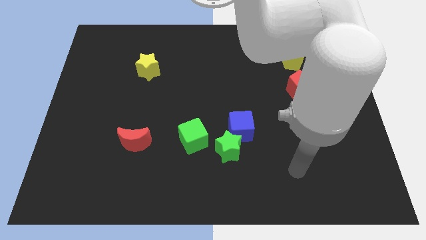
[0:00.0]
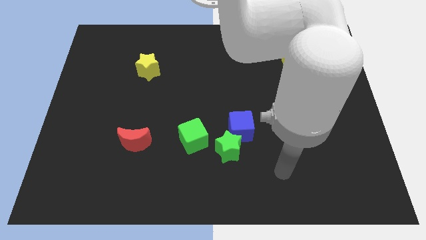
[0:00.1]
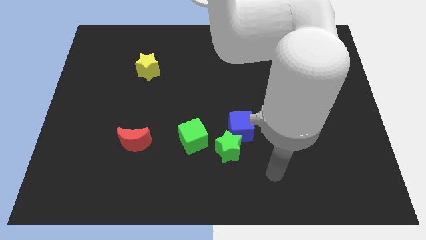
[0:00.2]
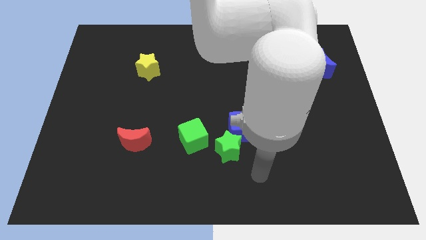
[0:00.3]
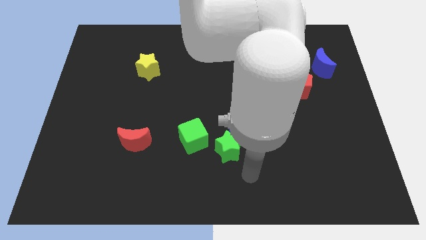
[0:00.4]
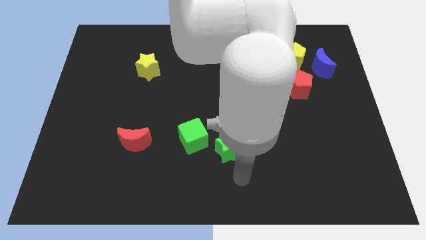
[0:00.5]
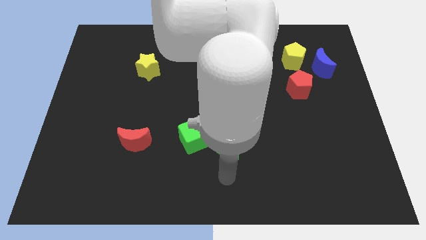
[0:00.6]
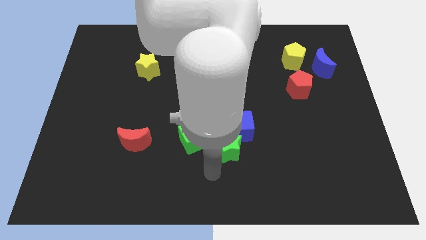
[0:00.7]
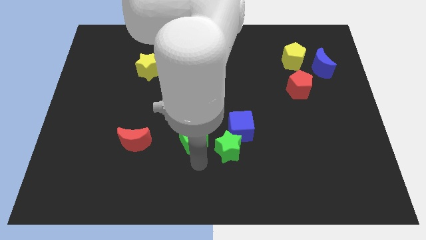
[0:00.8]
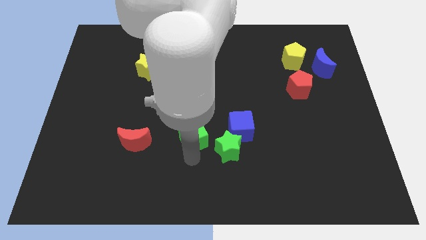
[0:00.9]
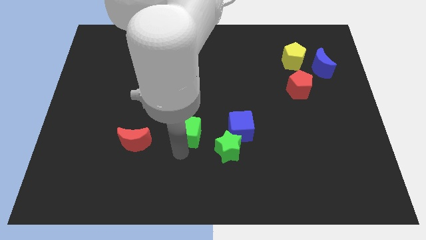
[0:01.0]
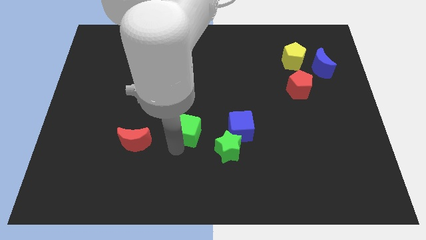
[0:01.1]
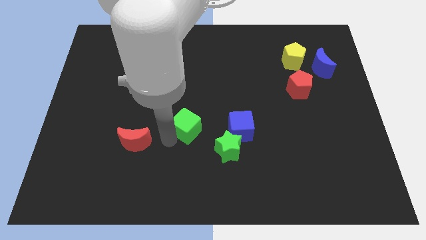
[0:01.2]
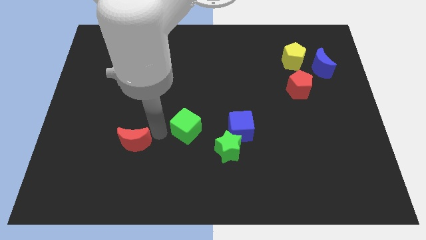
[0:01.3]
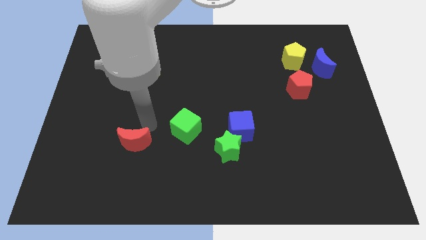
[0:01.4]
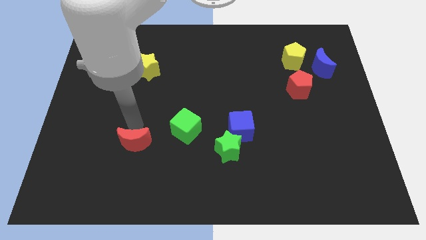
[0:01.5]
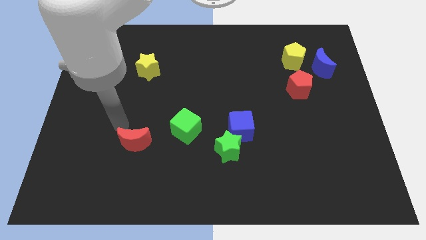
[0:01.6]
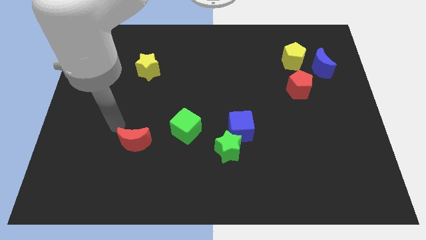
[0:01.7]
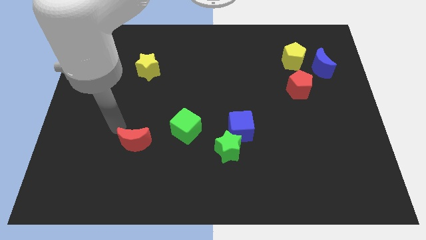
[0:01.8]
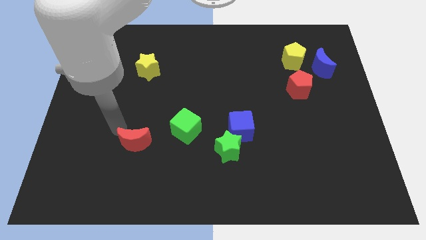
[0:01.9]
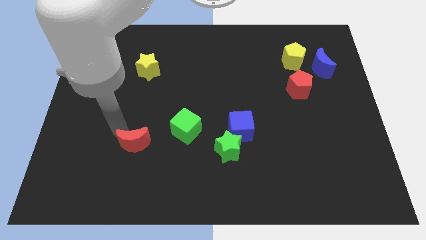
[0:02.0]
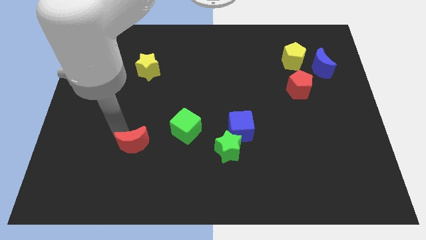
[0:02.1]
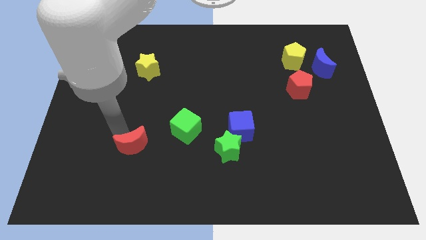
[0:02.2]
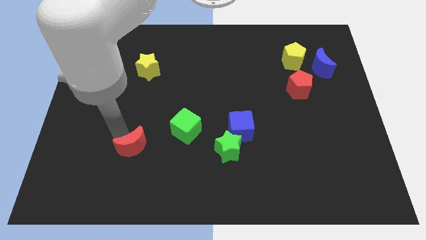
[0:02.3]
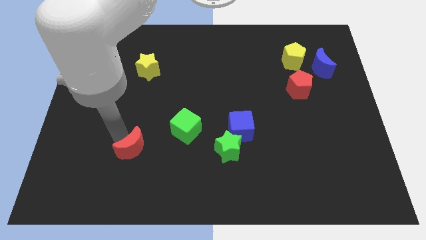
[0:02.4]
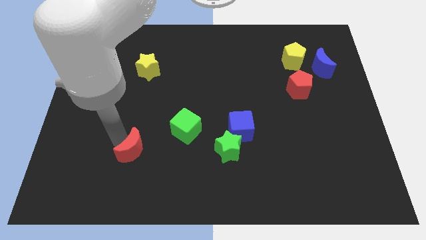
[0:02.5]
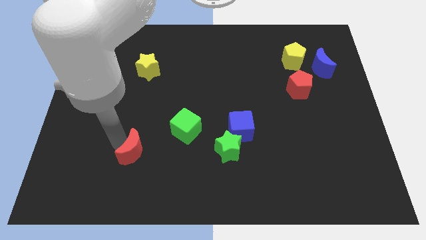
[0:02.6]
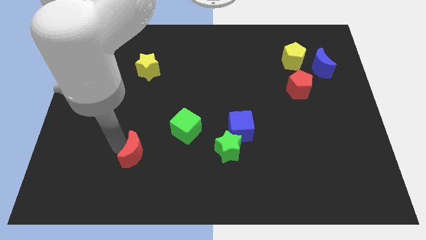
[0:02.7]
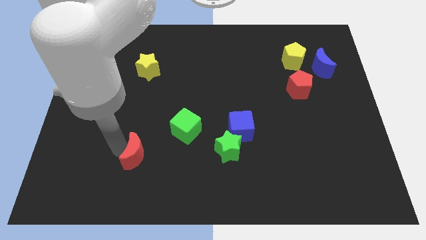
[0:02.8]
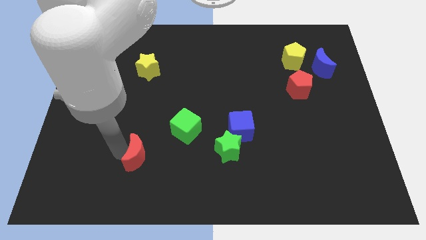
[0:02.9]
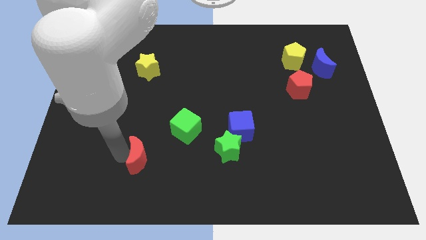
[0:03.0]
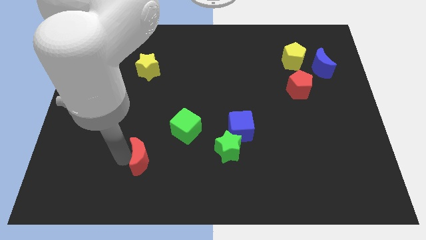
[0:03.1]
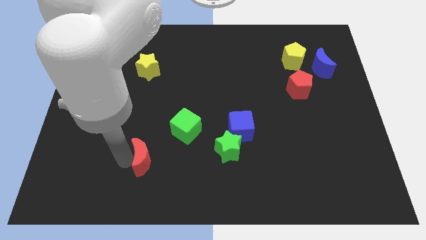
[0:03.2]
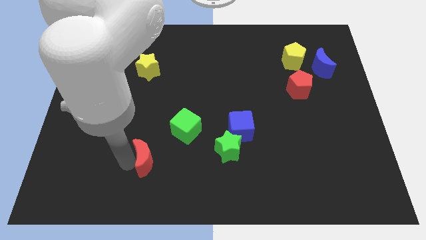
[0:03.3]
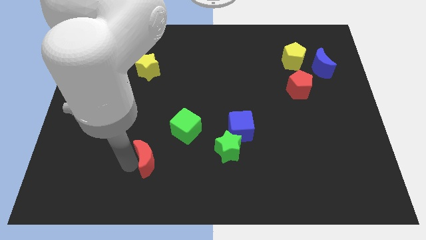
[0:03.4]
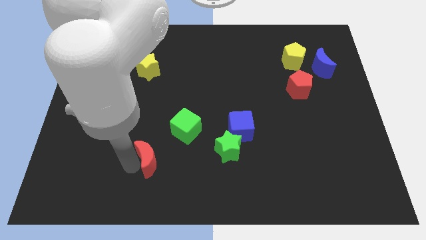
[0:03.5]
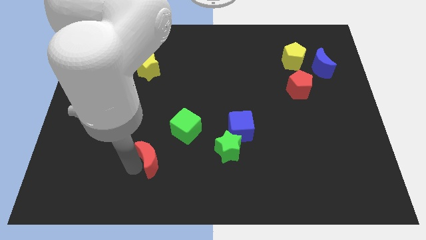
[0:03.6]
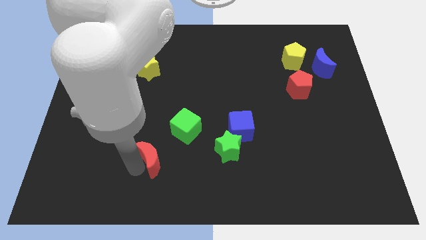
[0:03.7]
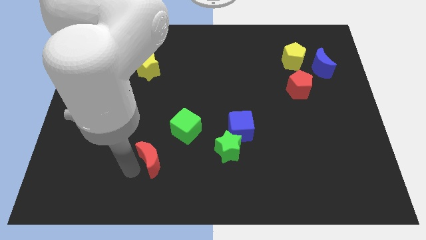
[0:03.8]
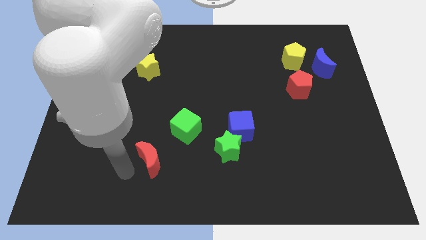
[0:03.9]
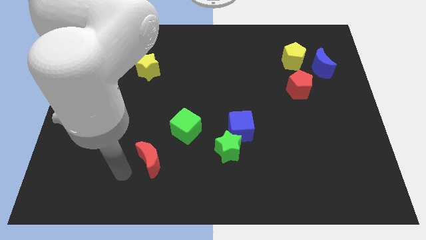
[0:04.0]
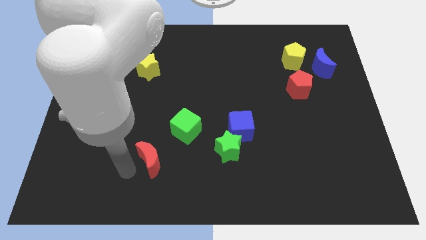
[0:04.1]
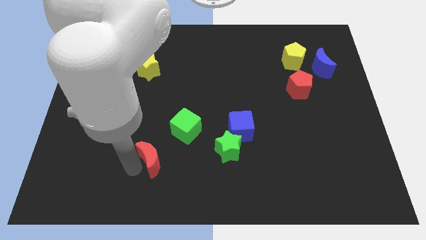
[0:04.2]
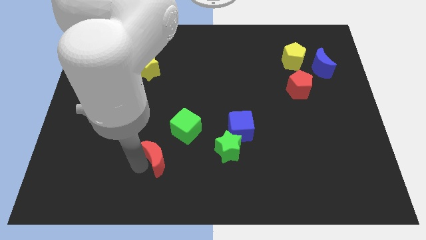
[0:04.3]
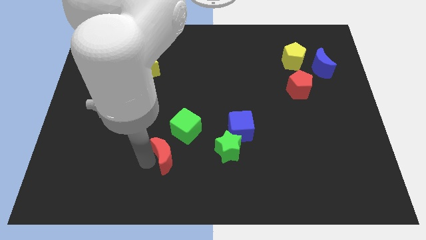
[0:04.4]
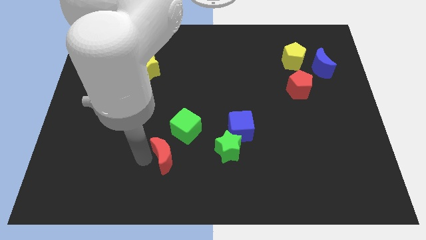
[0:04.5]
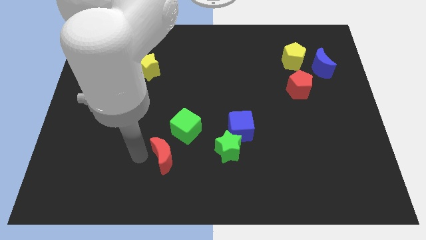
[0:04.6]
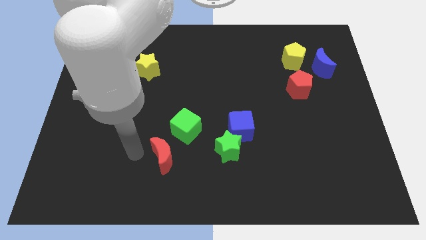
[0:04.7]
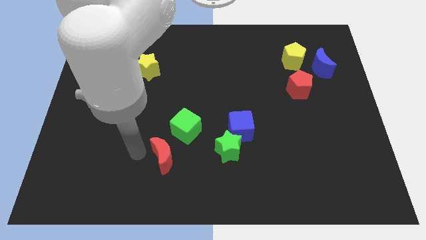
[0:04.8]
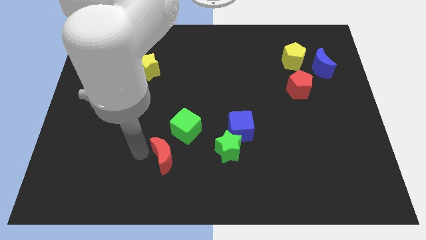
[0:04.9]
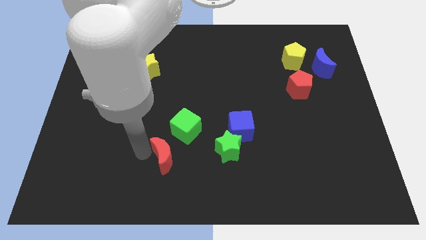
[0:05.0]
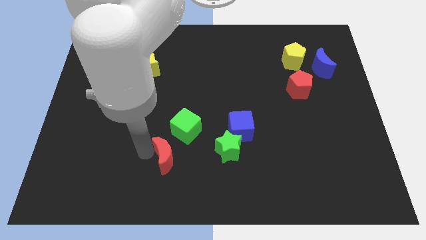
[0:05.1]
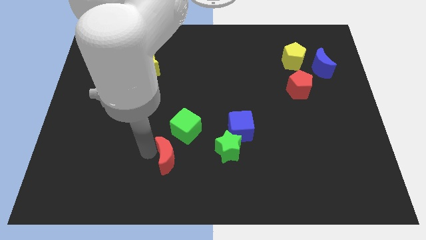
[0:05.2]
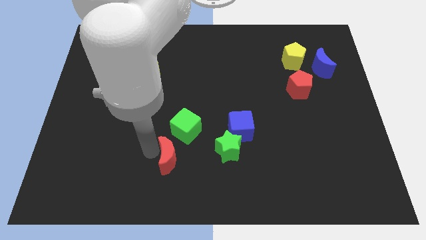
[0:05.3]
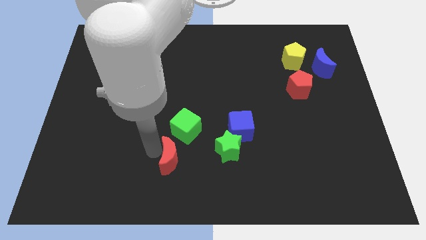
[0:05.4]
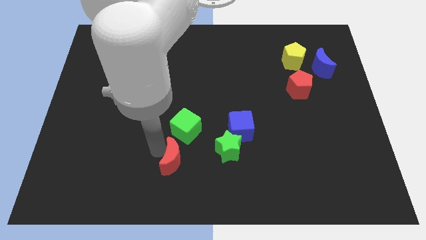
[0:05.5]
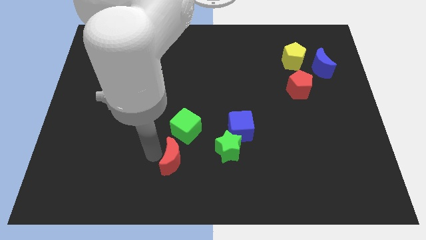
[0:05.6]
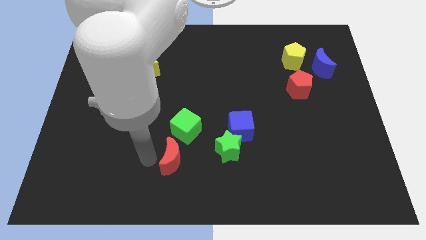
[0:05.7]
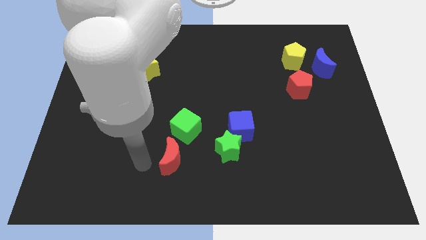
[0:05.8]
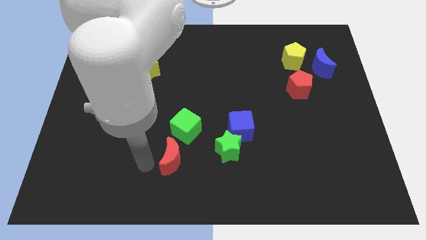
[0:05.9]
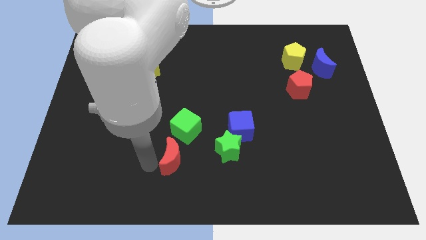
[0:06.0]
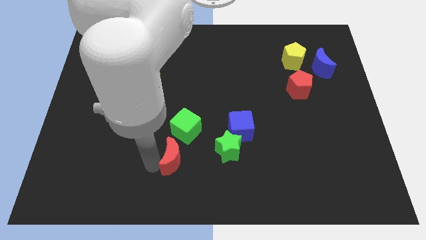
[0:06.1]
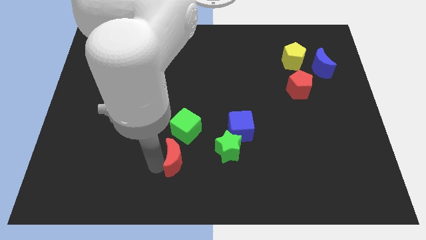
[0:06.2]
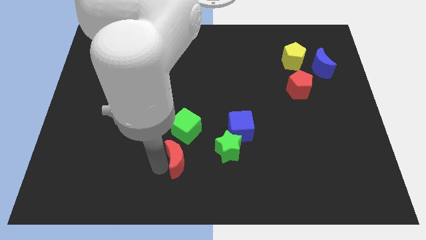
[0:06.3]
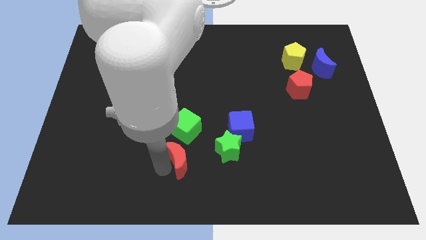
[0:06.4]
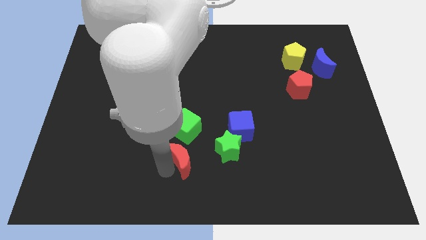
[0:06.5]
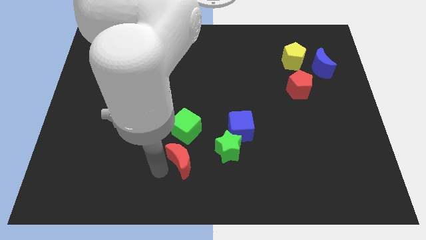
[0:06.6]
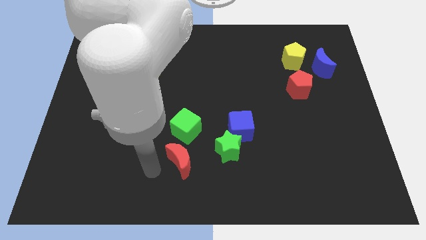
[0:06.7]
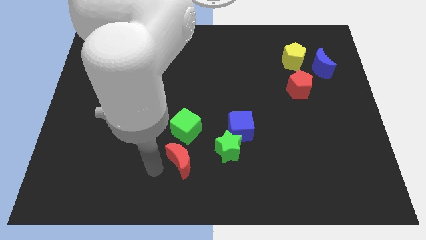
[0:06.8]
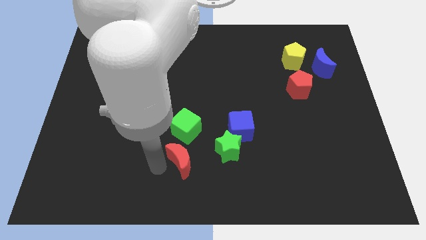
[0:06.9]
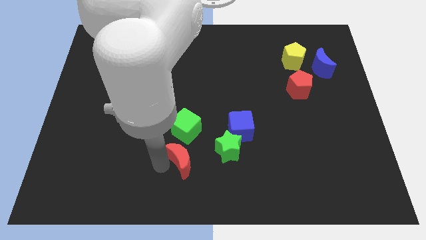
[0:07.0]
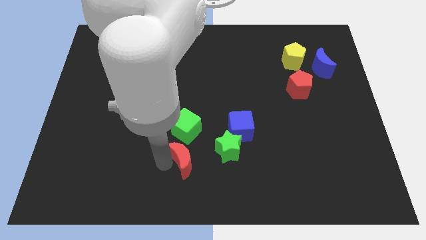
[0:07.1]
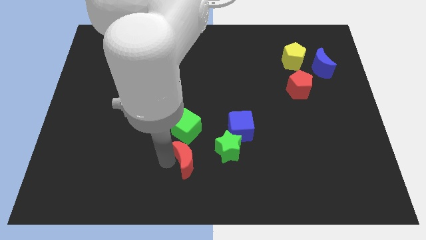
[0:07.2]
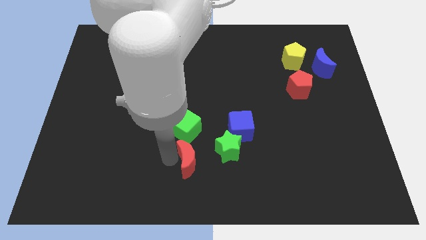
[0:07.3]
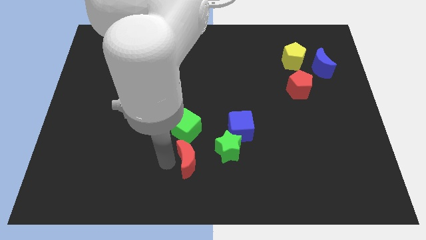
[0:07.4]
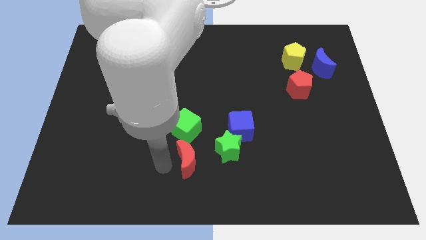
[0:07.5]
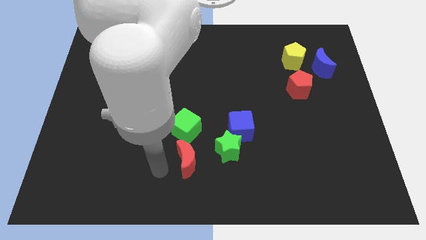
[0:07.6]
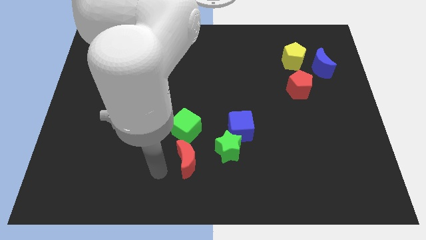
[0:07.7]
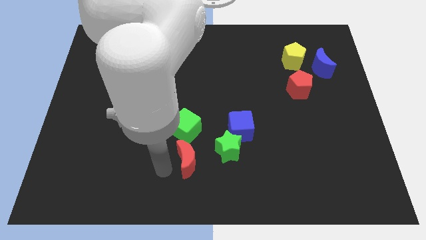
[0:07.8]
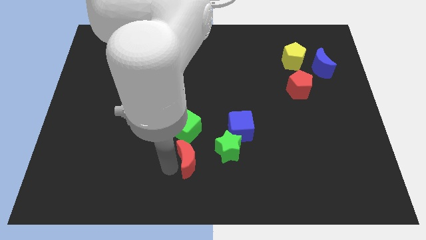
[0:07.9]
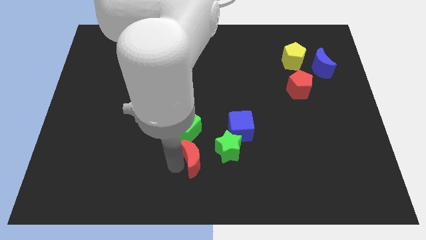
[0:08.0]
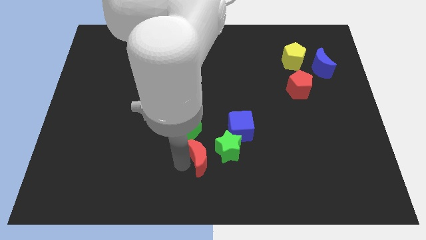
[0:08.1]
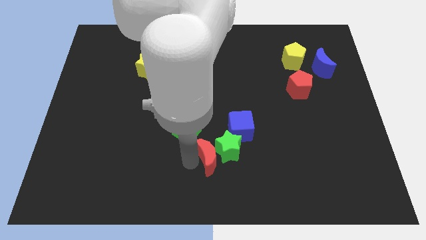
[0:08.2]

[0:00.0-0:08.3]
slide the red moon close to the green star
